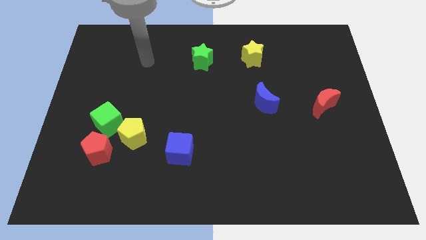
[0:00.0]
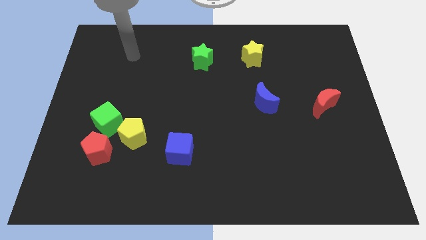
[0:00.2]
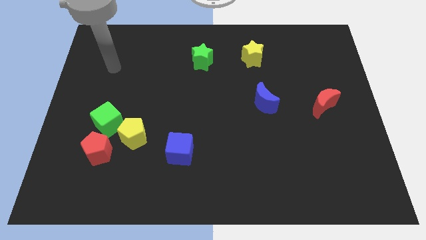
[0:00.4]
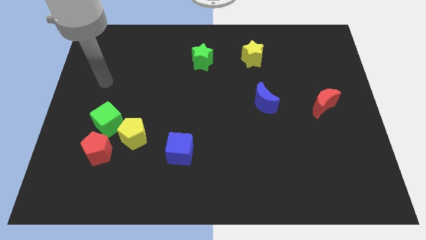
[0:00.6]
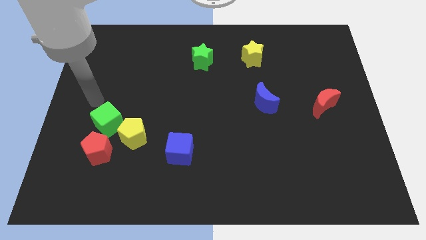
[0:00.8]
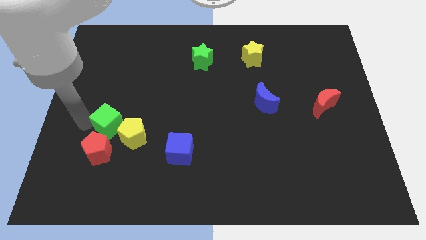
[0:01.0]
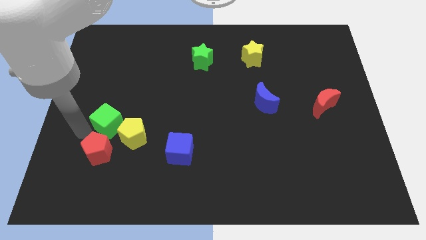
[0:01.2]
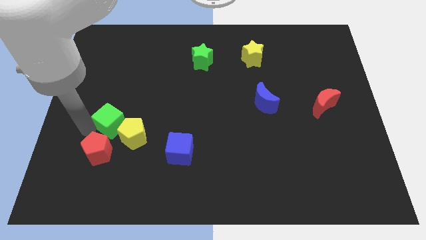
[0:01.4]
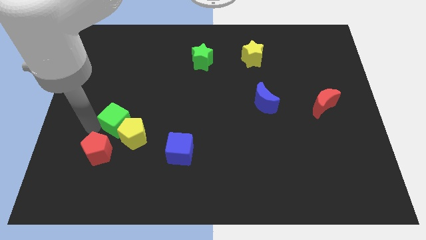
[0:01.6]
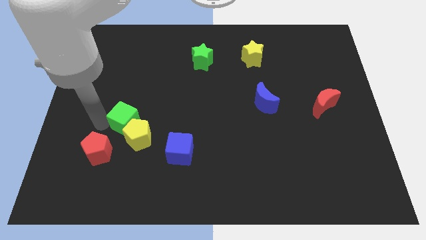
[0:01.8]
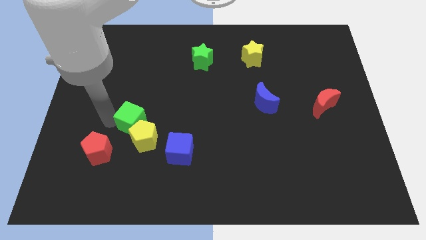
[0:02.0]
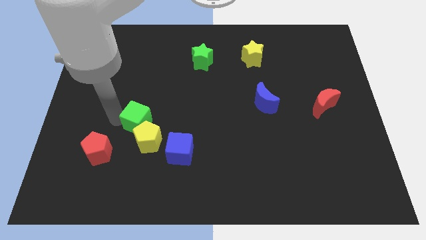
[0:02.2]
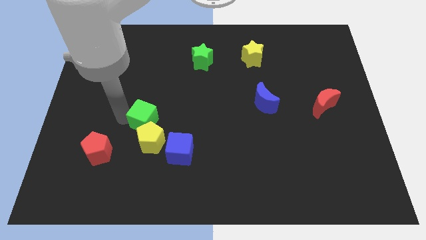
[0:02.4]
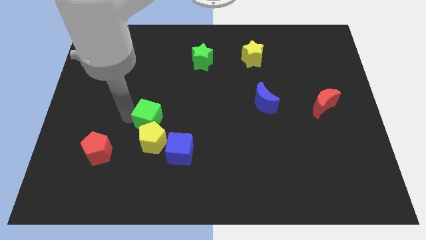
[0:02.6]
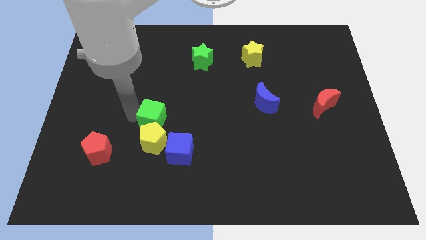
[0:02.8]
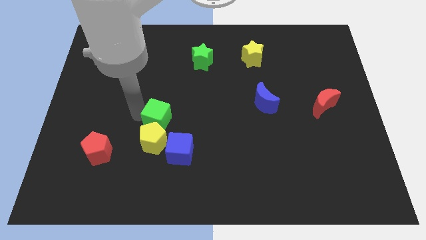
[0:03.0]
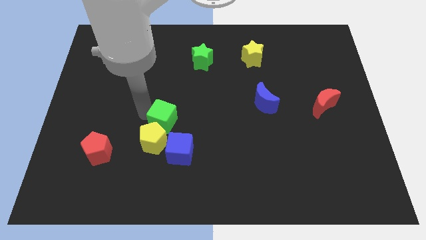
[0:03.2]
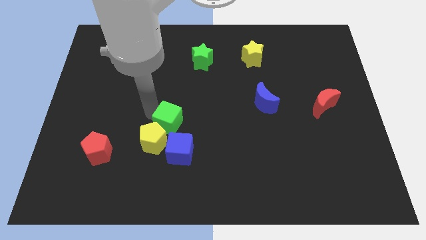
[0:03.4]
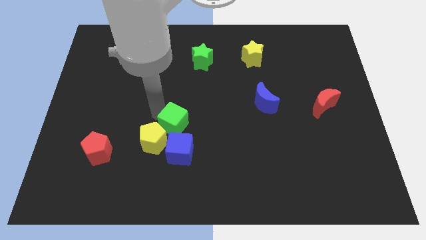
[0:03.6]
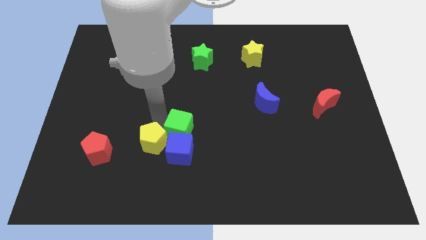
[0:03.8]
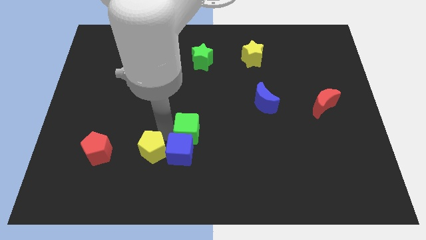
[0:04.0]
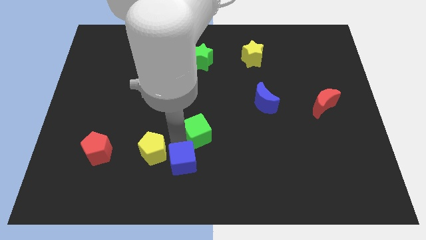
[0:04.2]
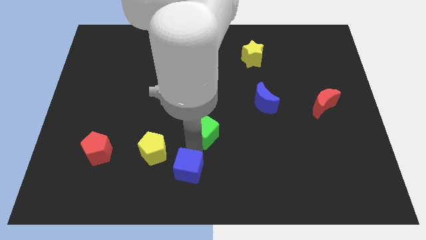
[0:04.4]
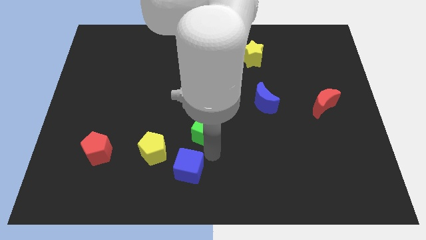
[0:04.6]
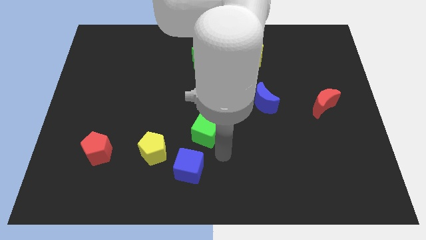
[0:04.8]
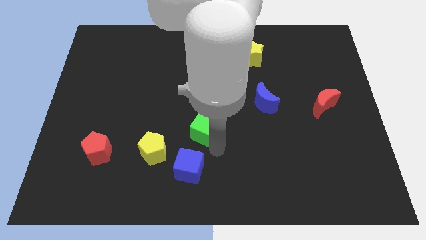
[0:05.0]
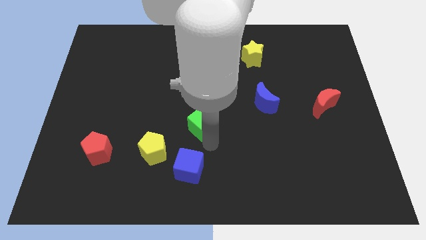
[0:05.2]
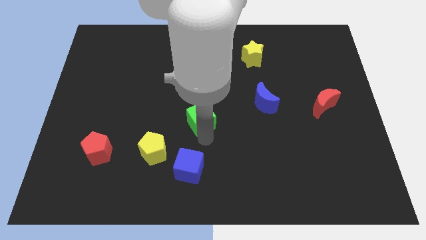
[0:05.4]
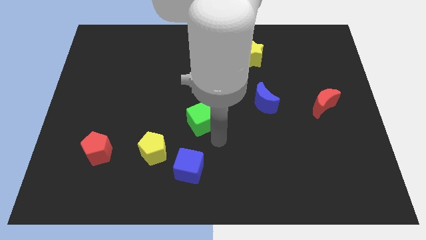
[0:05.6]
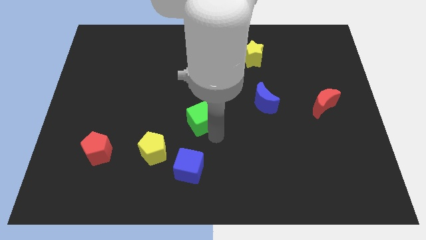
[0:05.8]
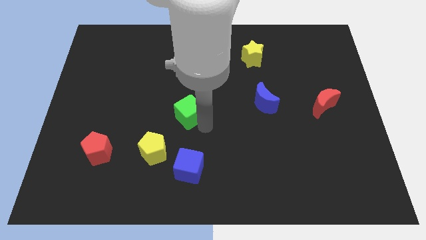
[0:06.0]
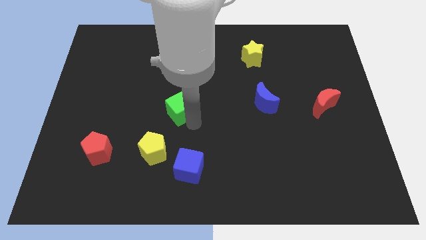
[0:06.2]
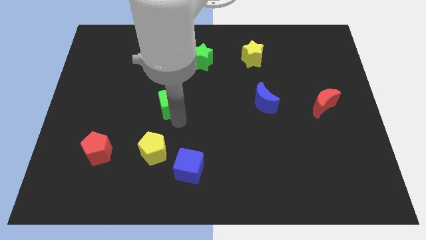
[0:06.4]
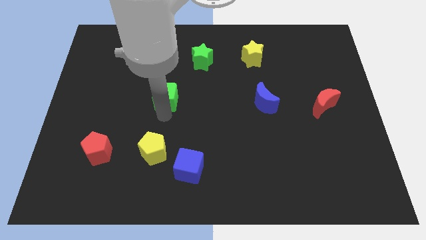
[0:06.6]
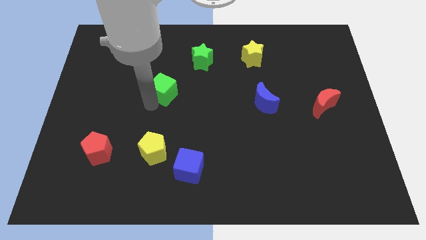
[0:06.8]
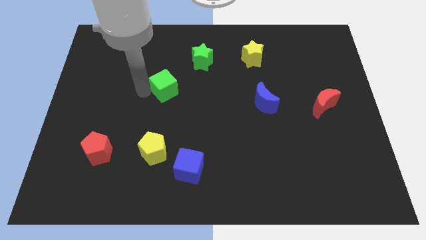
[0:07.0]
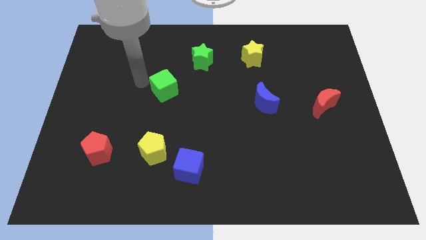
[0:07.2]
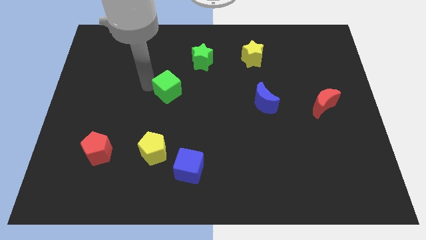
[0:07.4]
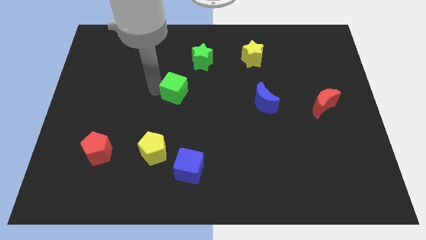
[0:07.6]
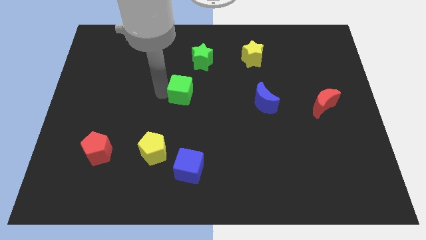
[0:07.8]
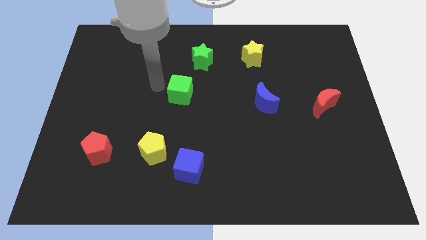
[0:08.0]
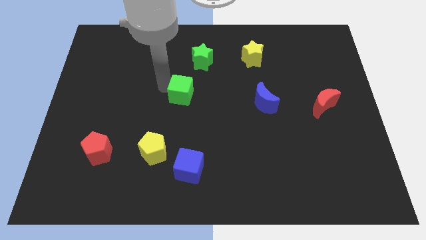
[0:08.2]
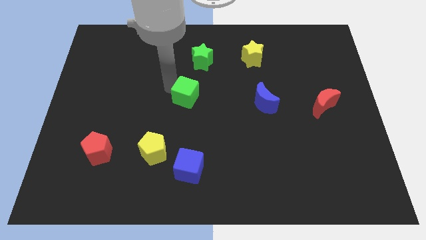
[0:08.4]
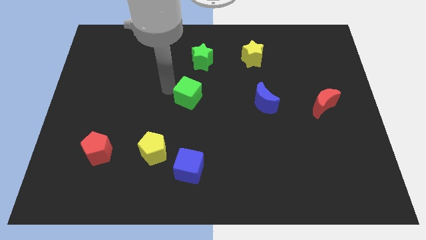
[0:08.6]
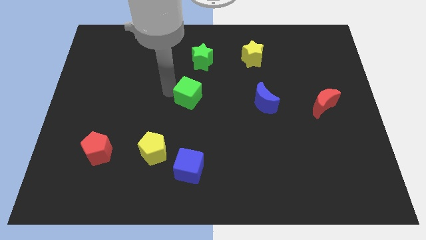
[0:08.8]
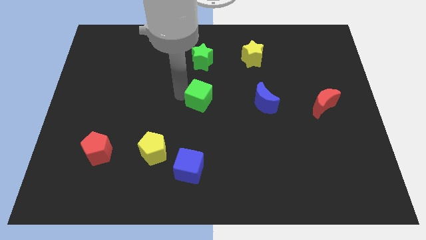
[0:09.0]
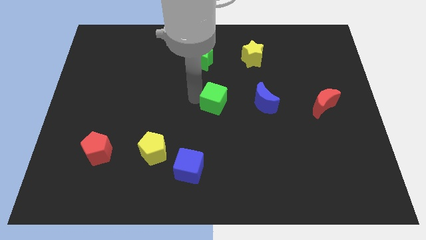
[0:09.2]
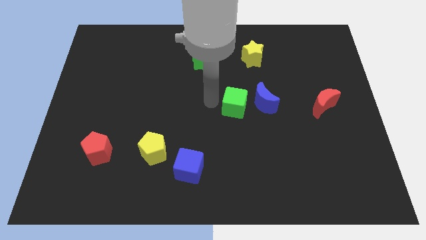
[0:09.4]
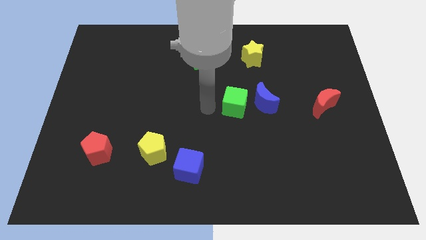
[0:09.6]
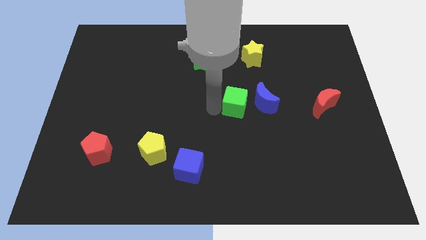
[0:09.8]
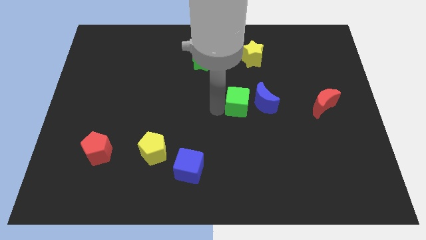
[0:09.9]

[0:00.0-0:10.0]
push the green cube towards the blue moon

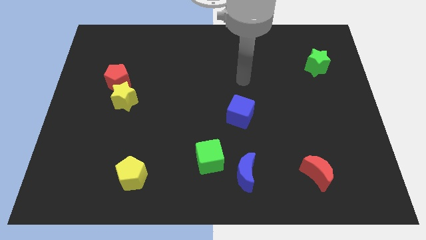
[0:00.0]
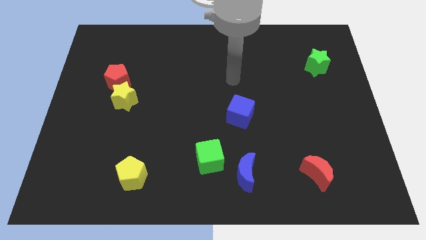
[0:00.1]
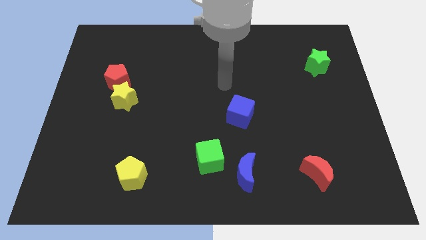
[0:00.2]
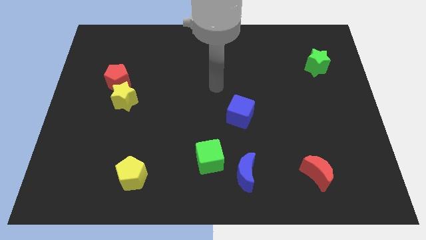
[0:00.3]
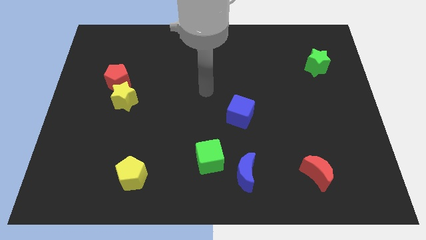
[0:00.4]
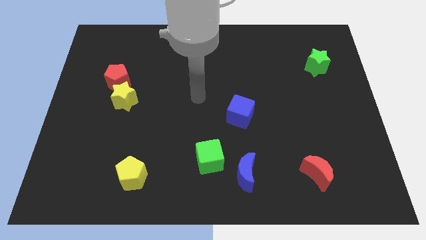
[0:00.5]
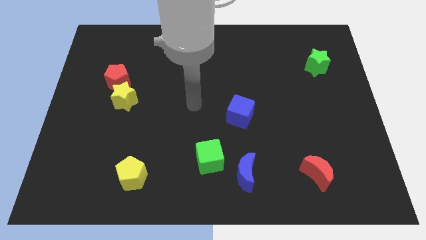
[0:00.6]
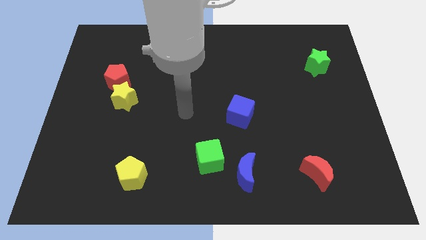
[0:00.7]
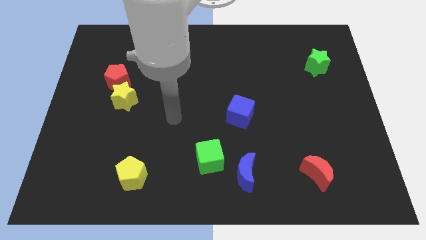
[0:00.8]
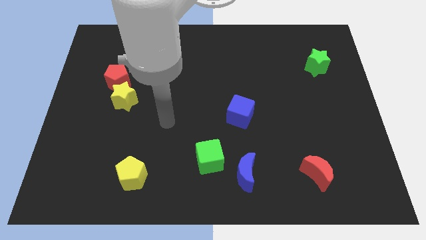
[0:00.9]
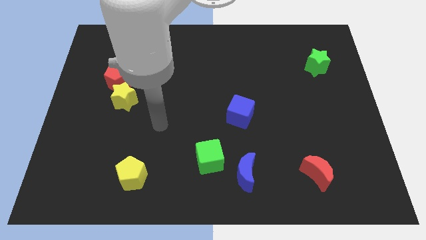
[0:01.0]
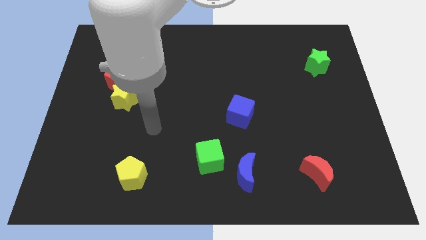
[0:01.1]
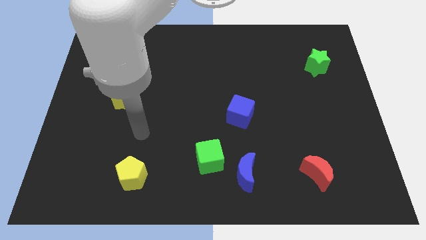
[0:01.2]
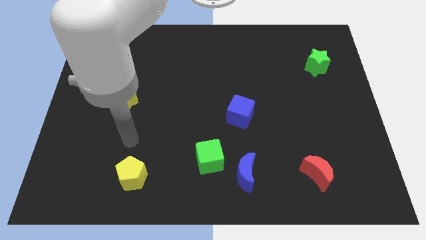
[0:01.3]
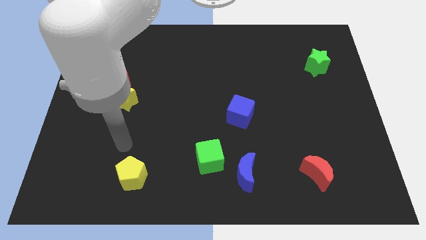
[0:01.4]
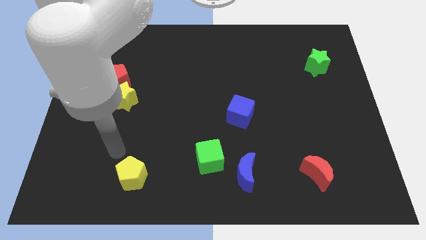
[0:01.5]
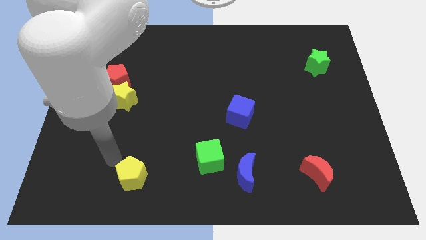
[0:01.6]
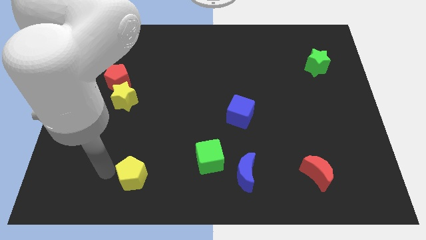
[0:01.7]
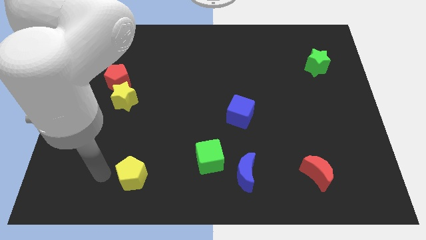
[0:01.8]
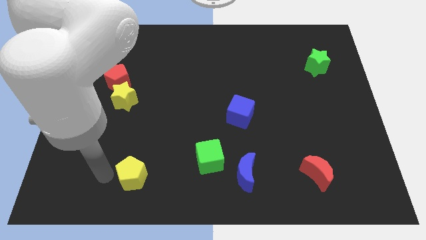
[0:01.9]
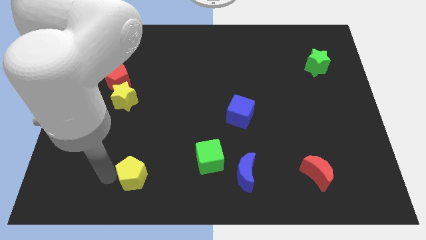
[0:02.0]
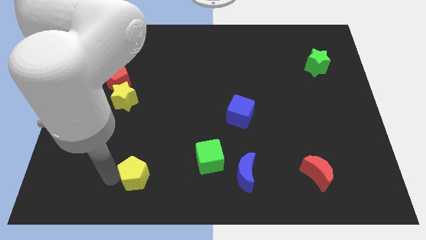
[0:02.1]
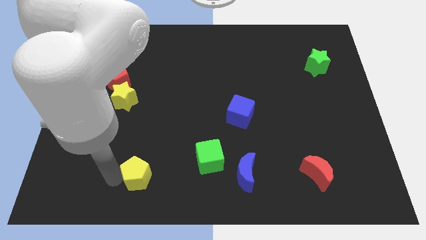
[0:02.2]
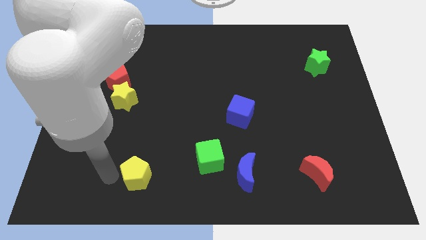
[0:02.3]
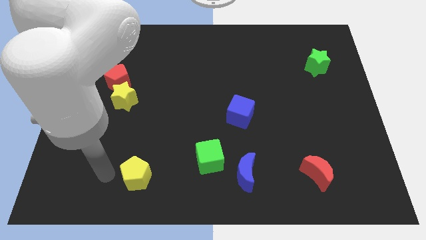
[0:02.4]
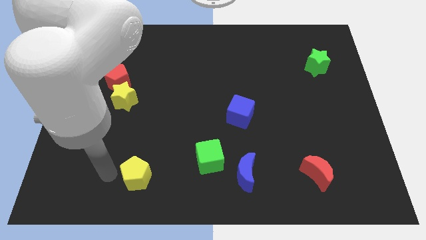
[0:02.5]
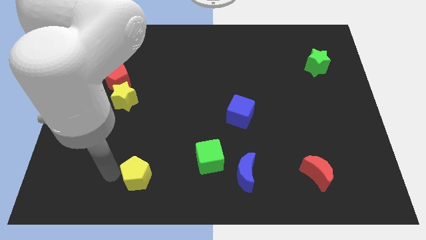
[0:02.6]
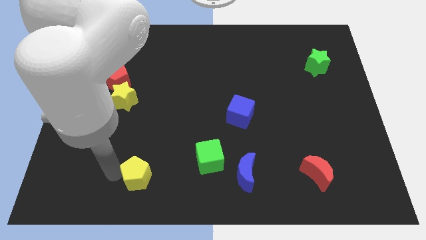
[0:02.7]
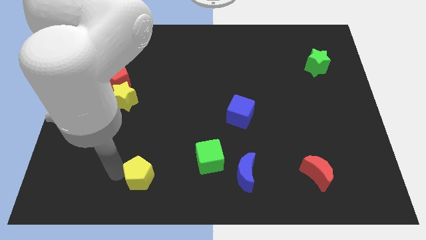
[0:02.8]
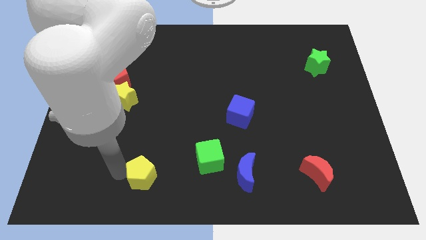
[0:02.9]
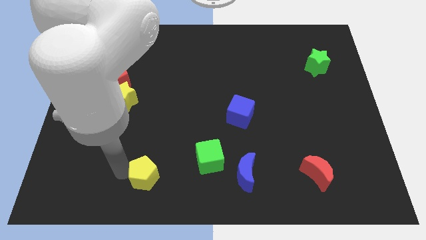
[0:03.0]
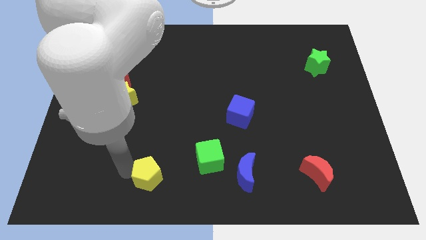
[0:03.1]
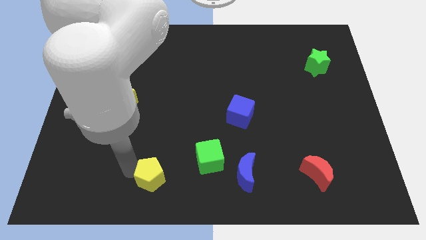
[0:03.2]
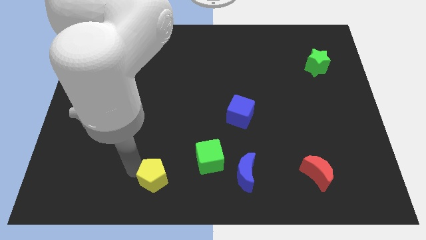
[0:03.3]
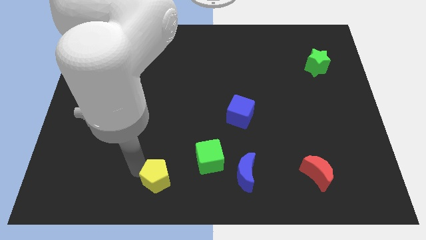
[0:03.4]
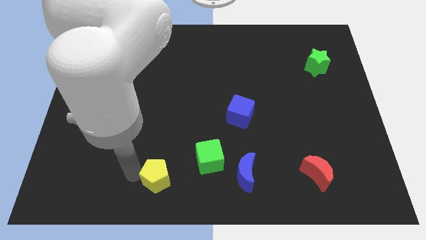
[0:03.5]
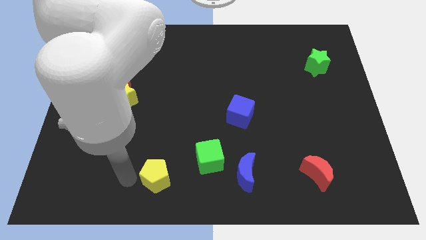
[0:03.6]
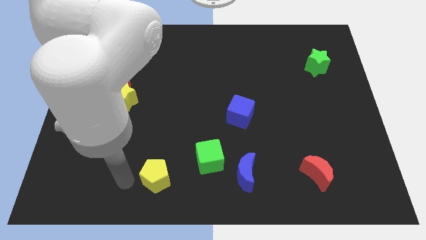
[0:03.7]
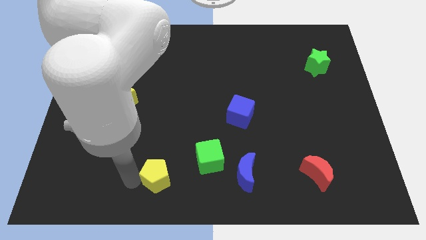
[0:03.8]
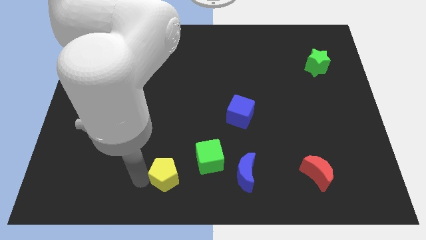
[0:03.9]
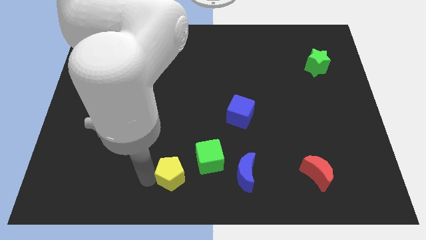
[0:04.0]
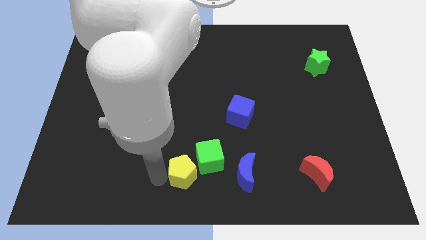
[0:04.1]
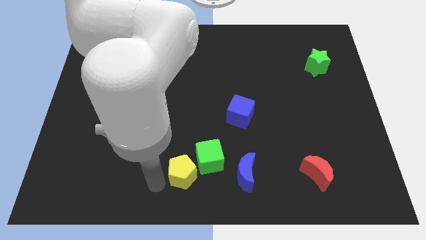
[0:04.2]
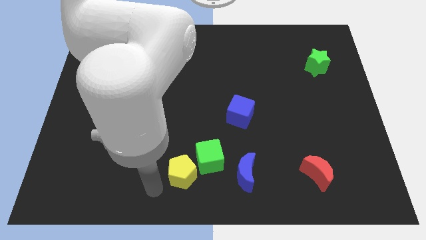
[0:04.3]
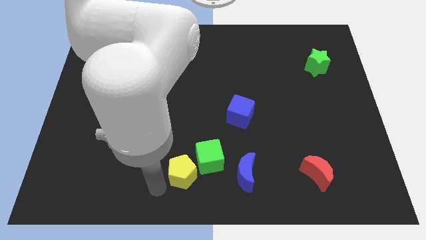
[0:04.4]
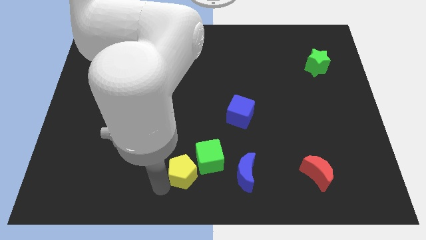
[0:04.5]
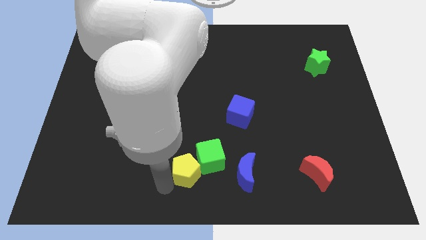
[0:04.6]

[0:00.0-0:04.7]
move the yellow pentagon close to the green cube
